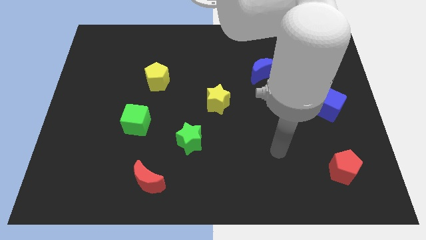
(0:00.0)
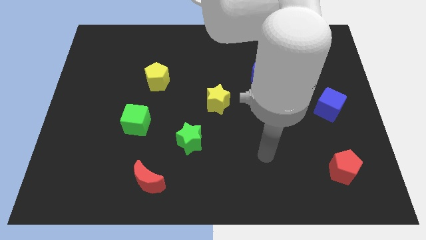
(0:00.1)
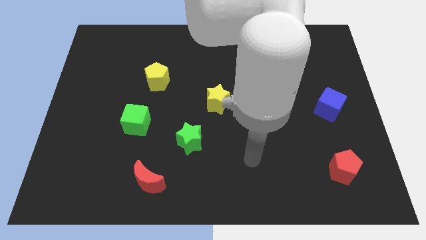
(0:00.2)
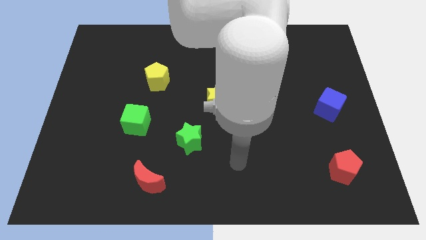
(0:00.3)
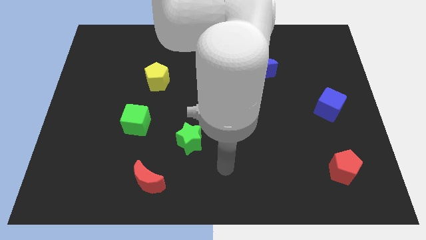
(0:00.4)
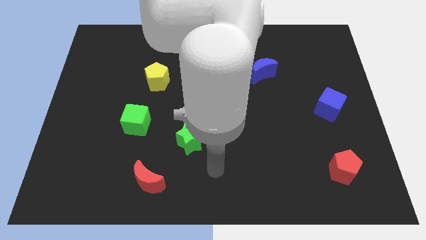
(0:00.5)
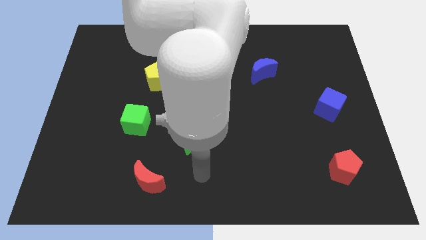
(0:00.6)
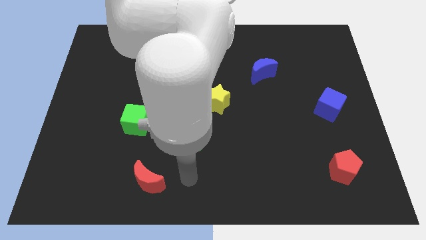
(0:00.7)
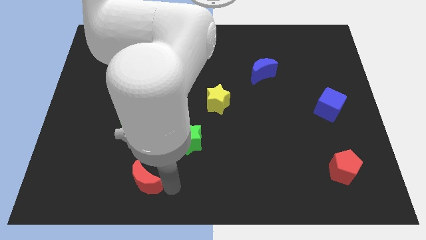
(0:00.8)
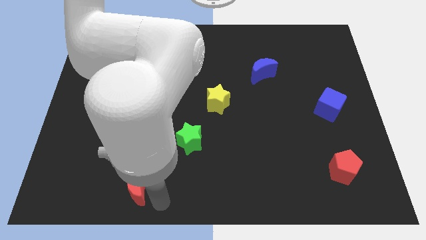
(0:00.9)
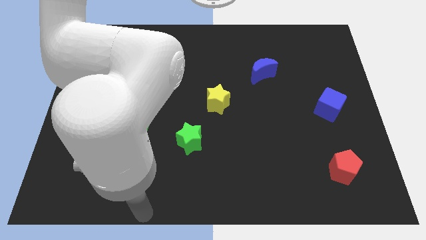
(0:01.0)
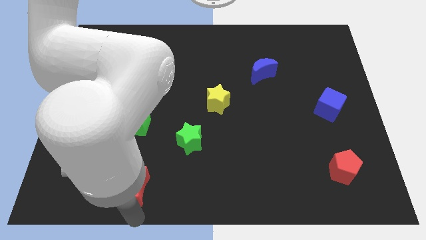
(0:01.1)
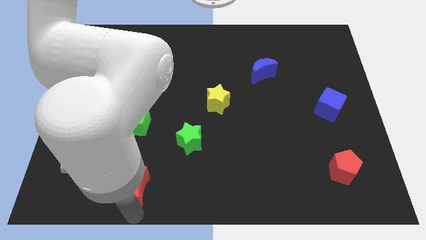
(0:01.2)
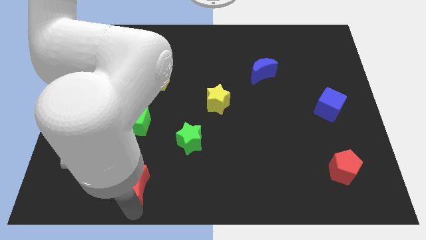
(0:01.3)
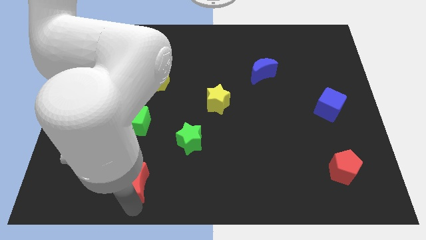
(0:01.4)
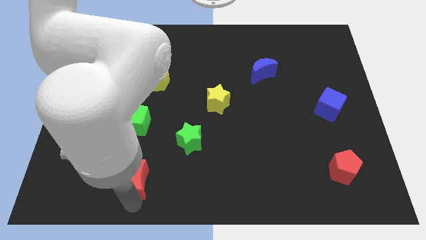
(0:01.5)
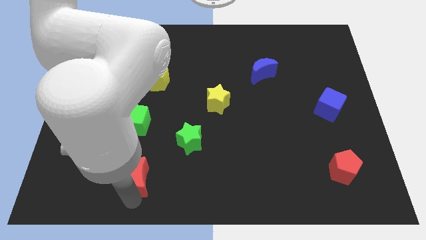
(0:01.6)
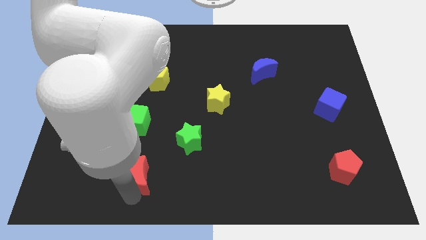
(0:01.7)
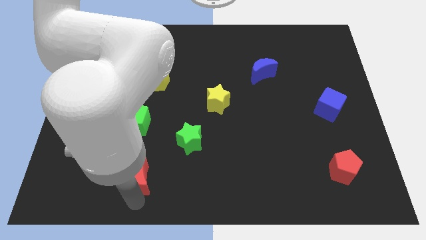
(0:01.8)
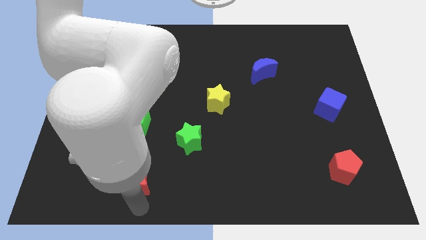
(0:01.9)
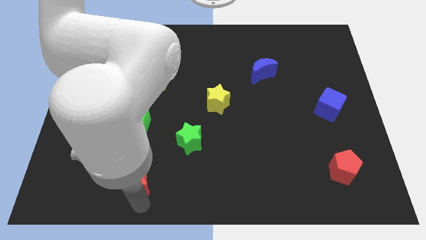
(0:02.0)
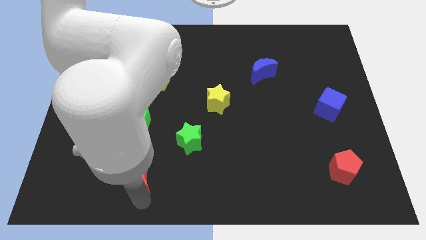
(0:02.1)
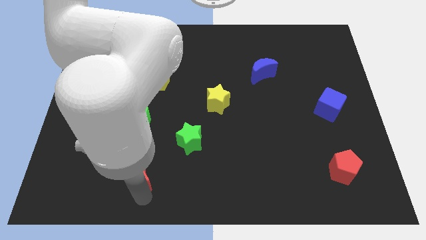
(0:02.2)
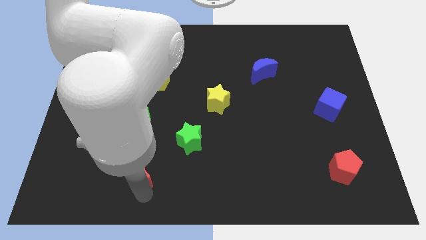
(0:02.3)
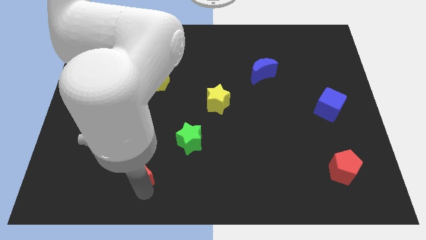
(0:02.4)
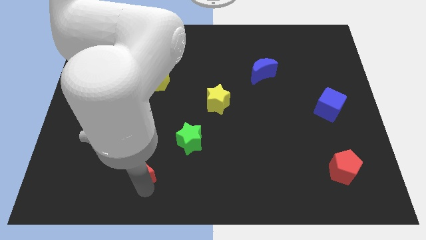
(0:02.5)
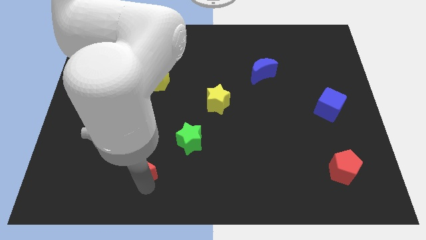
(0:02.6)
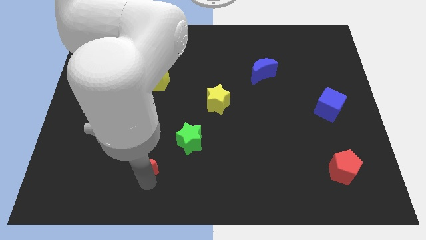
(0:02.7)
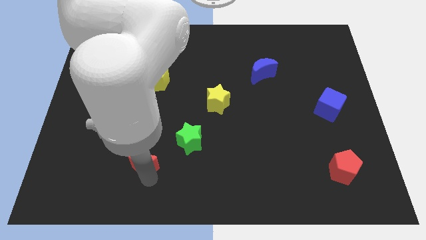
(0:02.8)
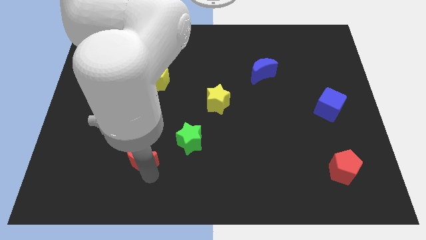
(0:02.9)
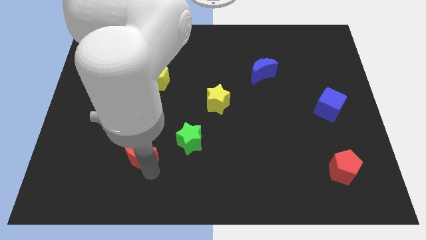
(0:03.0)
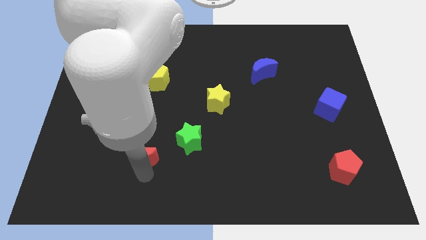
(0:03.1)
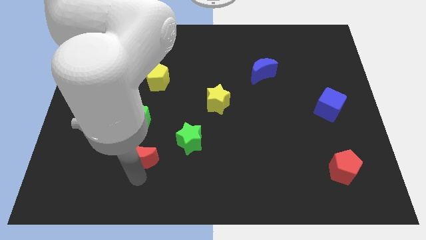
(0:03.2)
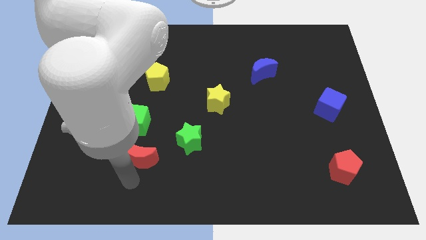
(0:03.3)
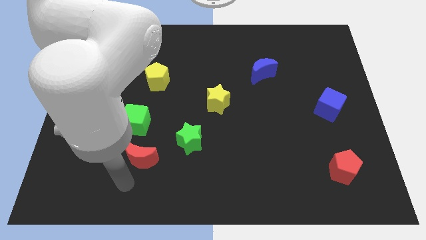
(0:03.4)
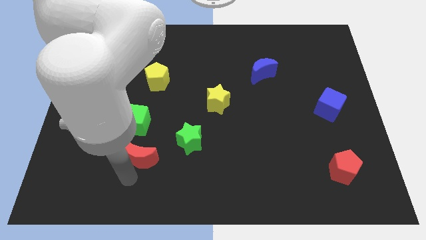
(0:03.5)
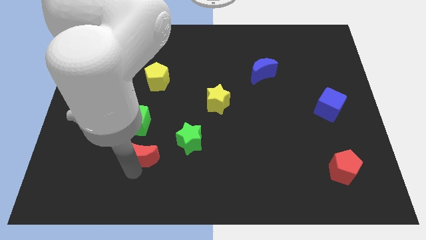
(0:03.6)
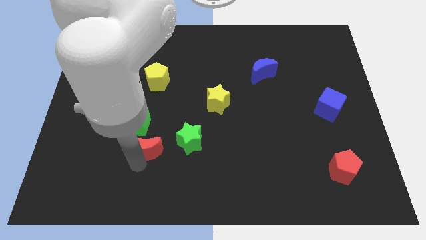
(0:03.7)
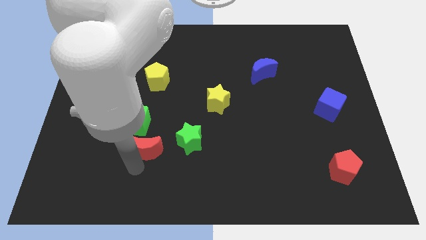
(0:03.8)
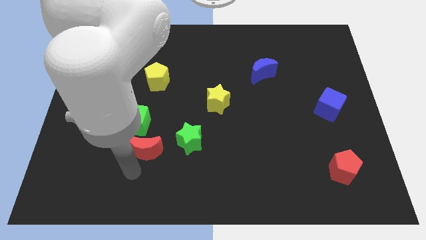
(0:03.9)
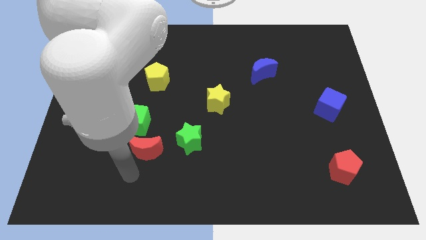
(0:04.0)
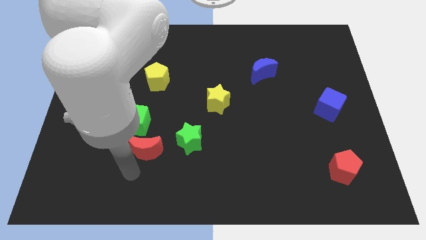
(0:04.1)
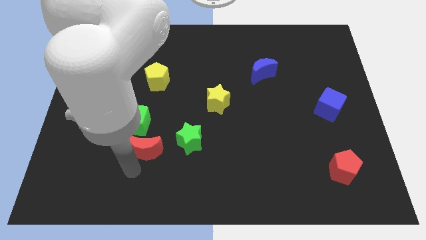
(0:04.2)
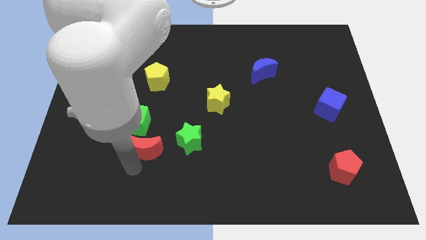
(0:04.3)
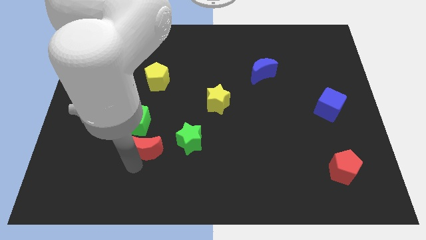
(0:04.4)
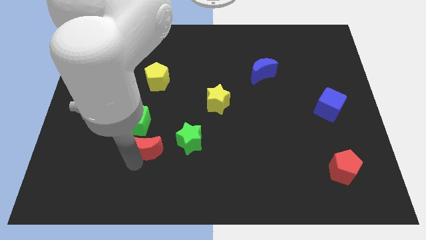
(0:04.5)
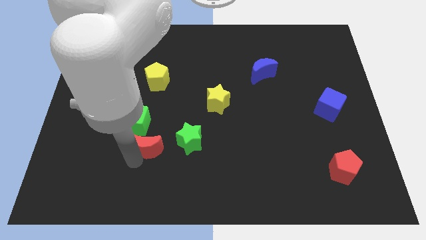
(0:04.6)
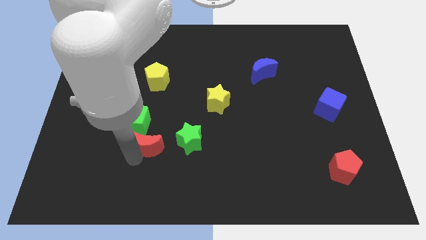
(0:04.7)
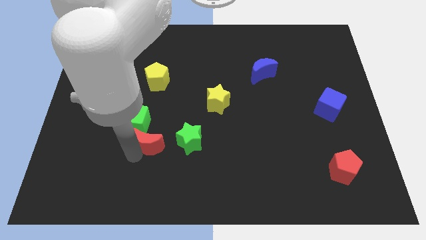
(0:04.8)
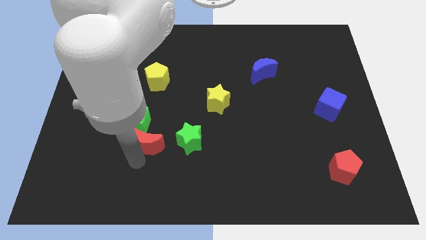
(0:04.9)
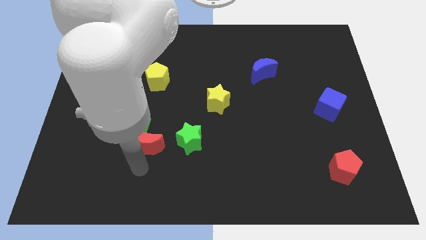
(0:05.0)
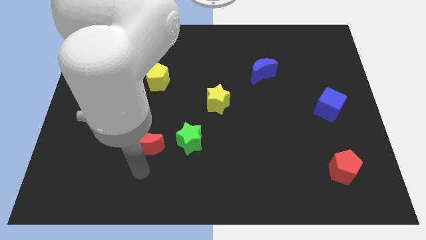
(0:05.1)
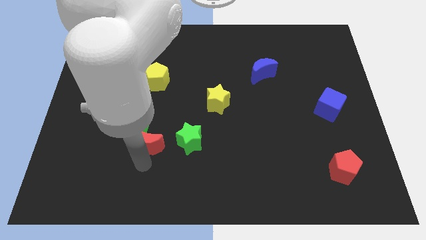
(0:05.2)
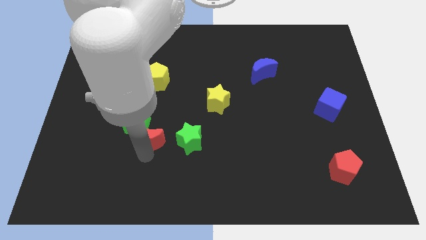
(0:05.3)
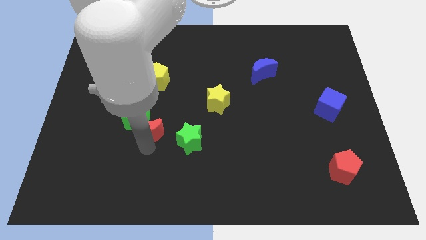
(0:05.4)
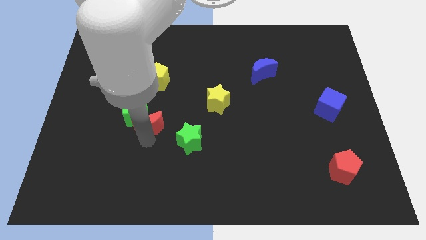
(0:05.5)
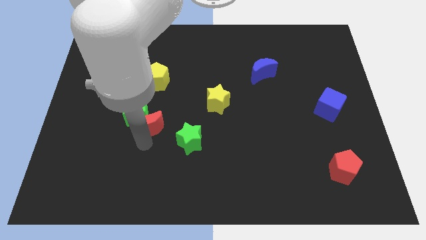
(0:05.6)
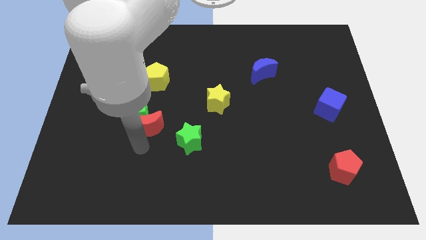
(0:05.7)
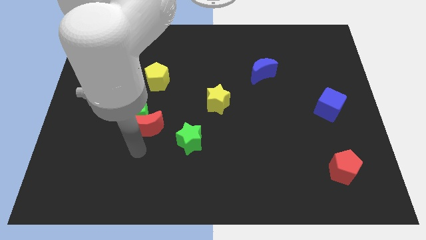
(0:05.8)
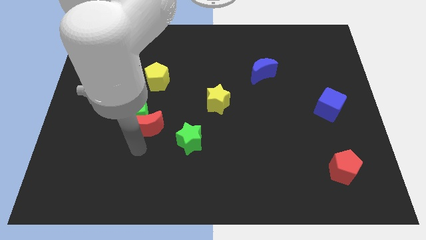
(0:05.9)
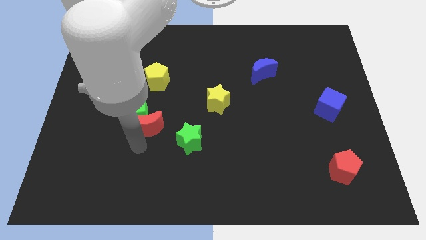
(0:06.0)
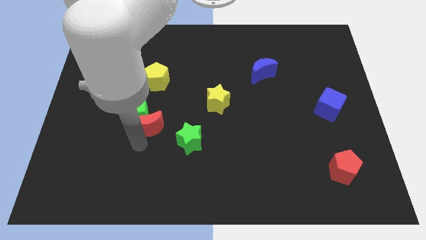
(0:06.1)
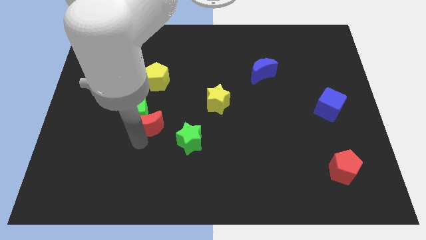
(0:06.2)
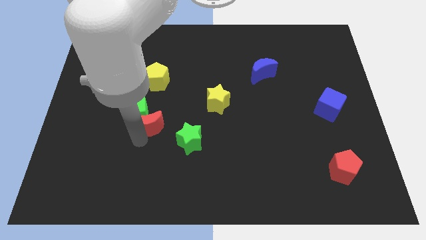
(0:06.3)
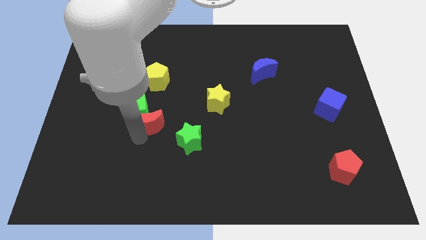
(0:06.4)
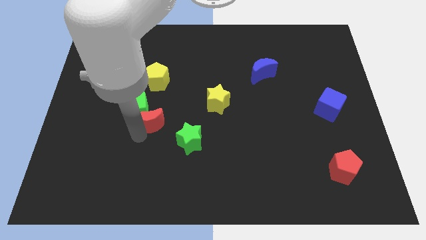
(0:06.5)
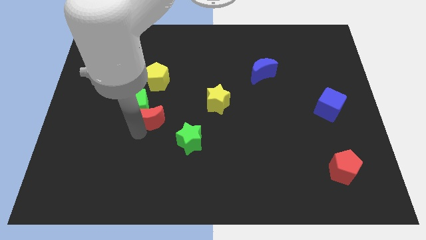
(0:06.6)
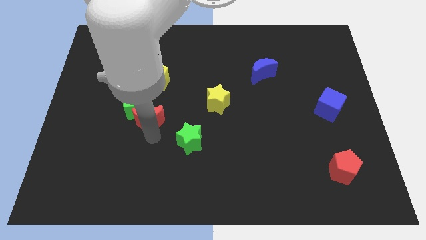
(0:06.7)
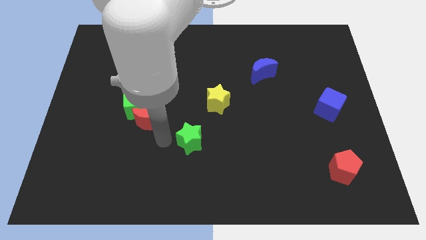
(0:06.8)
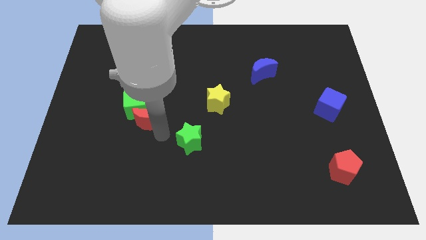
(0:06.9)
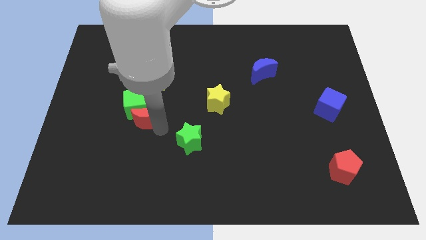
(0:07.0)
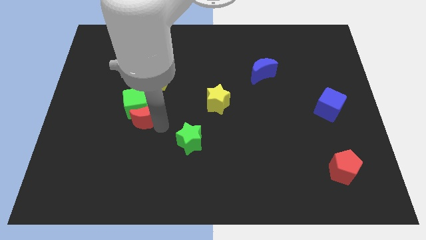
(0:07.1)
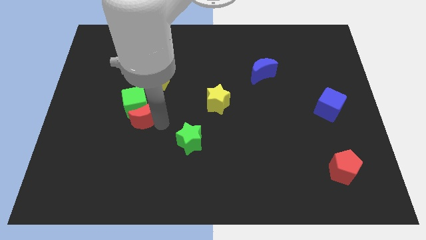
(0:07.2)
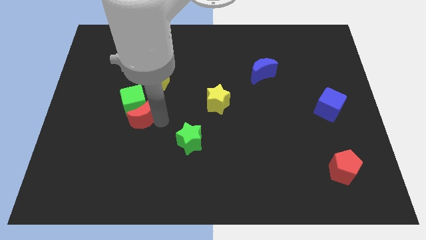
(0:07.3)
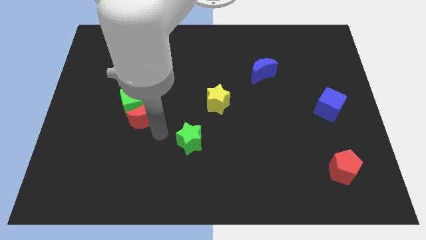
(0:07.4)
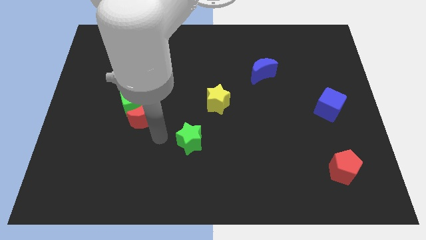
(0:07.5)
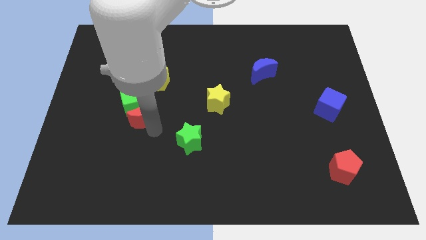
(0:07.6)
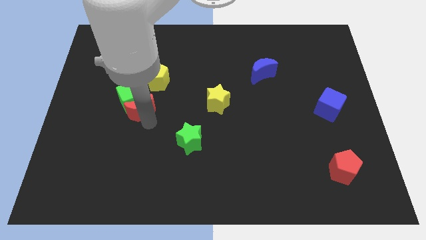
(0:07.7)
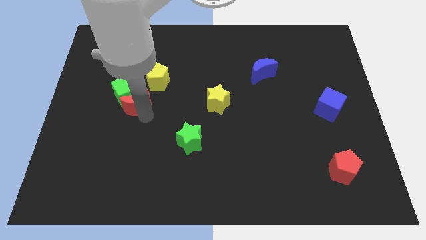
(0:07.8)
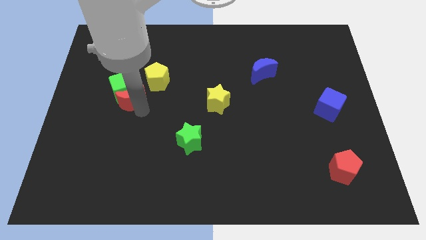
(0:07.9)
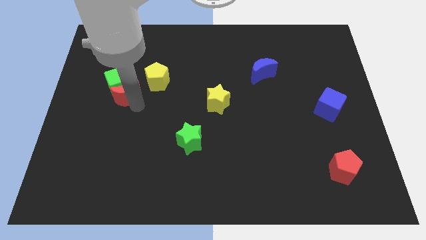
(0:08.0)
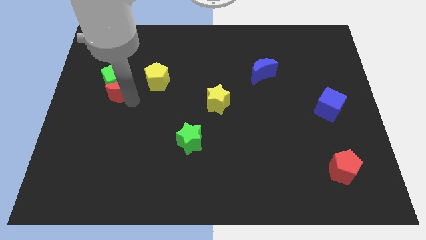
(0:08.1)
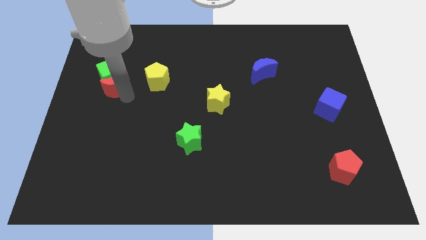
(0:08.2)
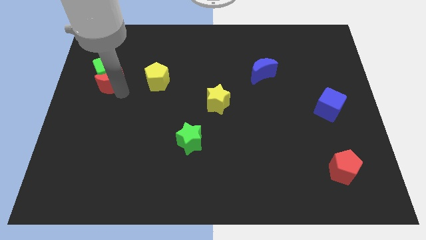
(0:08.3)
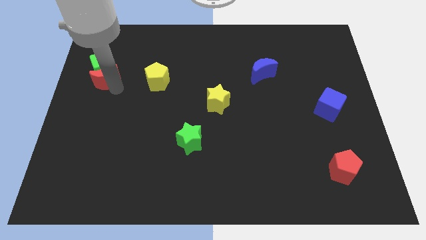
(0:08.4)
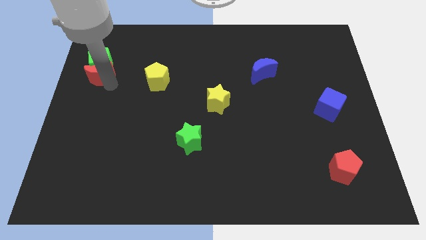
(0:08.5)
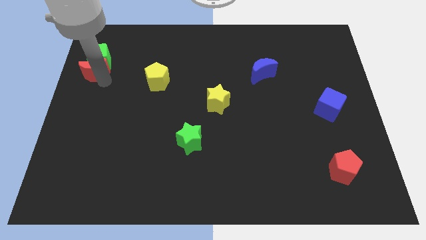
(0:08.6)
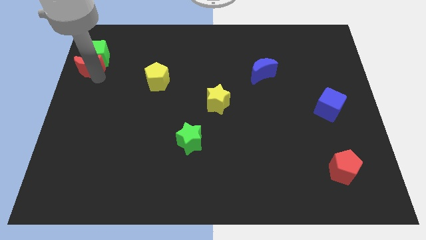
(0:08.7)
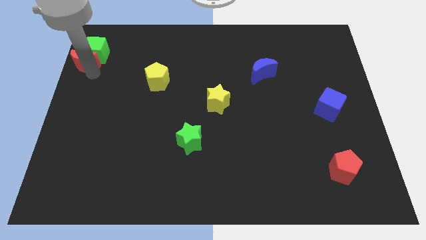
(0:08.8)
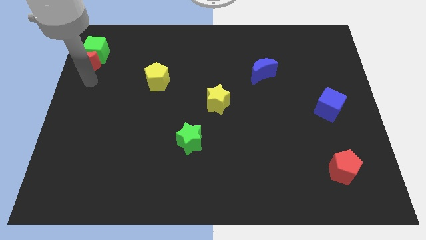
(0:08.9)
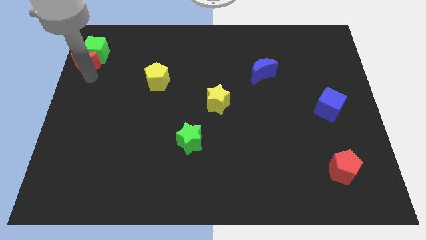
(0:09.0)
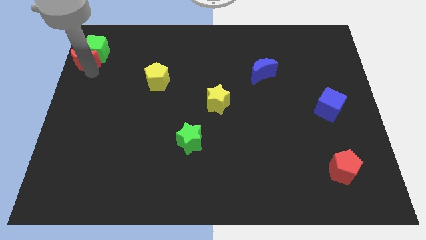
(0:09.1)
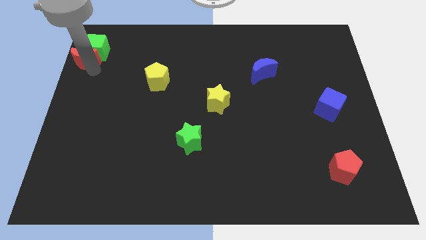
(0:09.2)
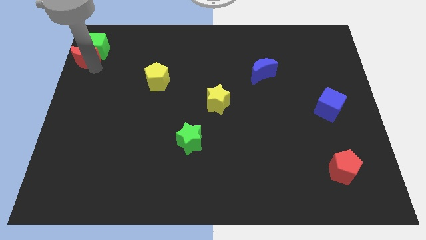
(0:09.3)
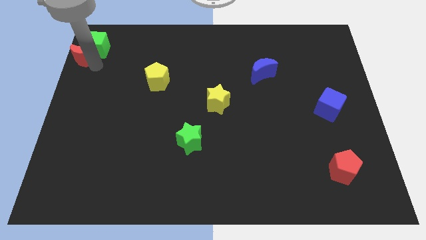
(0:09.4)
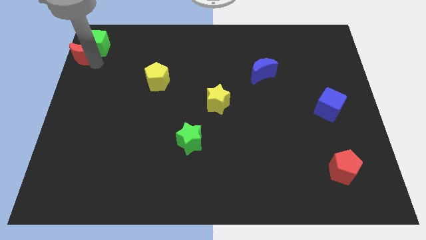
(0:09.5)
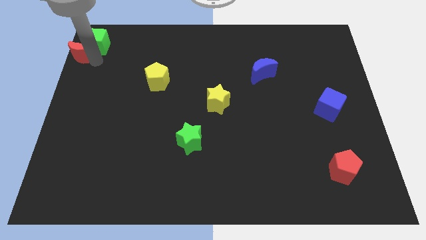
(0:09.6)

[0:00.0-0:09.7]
move the red moon to the top left corner
